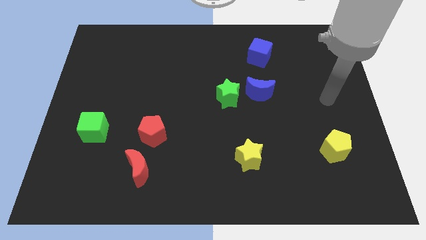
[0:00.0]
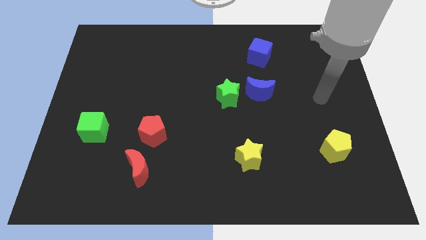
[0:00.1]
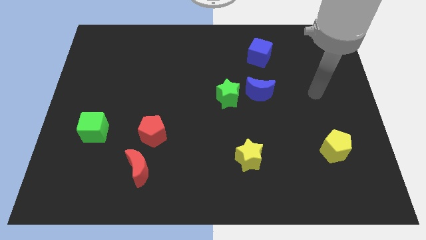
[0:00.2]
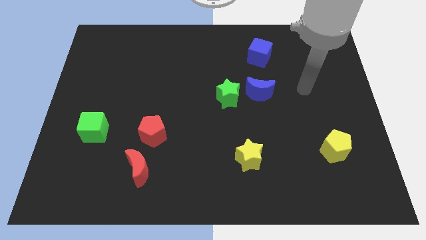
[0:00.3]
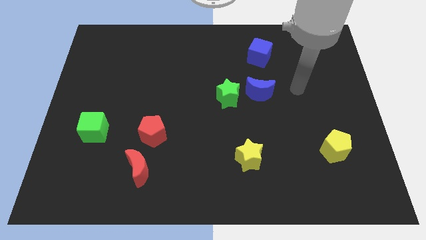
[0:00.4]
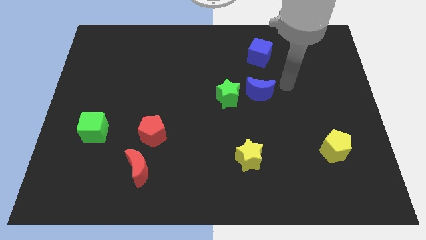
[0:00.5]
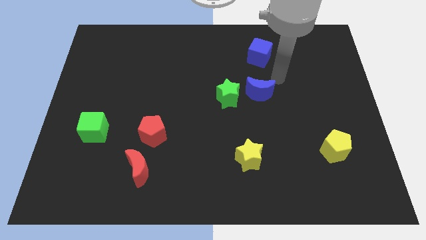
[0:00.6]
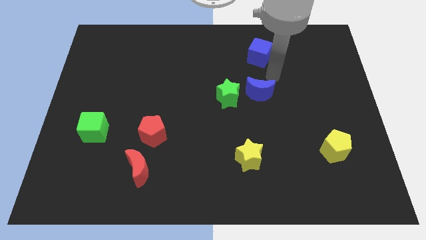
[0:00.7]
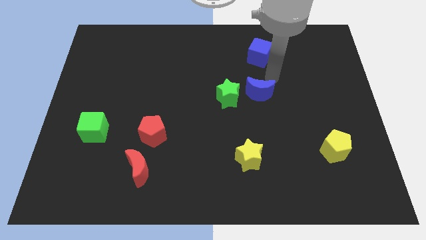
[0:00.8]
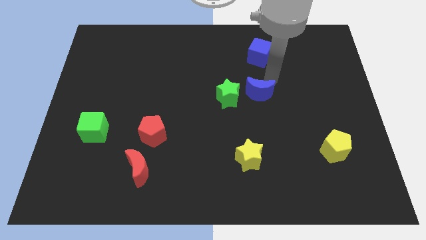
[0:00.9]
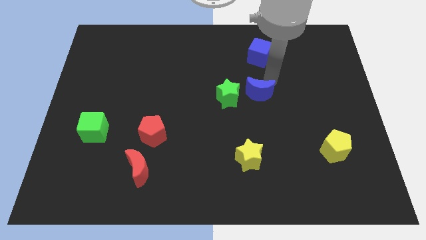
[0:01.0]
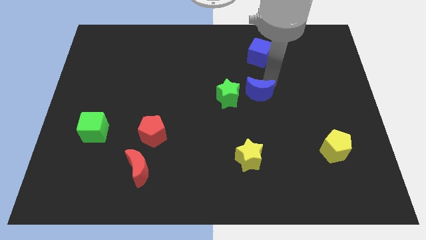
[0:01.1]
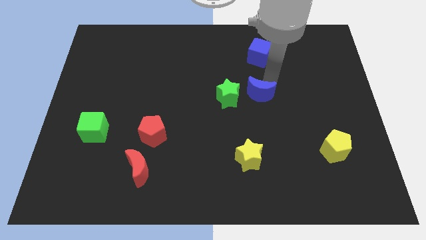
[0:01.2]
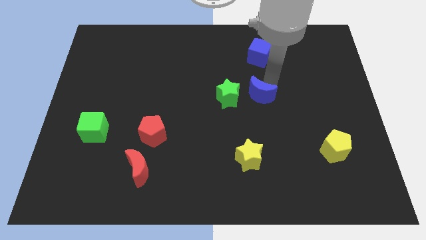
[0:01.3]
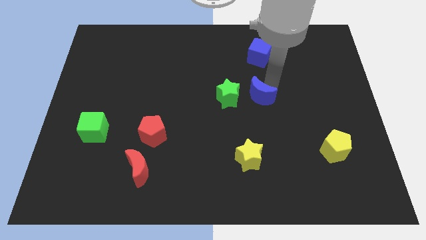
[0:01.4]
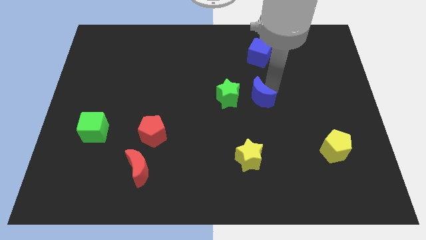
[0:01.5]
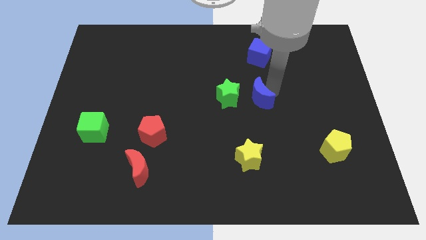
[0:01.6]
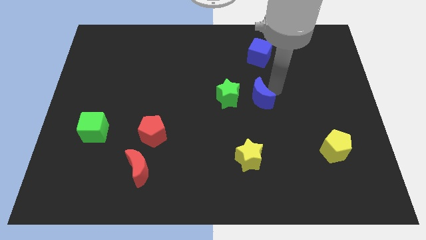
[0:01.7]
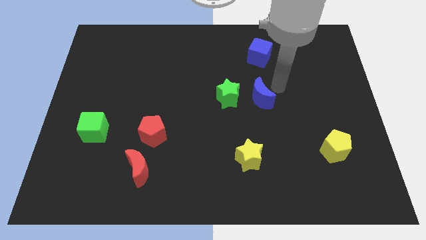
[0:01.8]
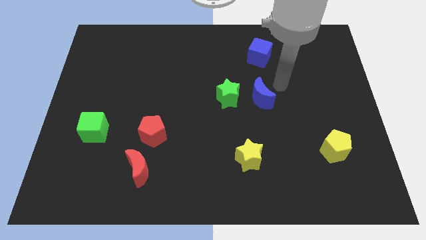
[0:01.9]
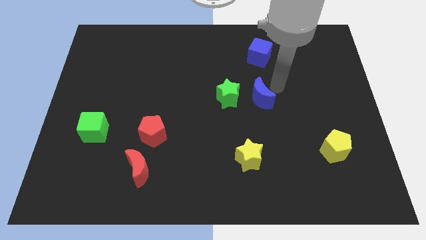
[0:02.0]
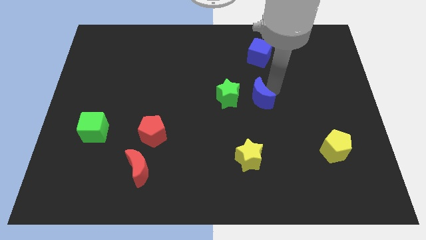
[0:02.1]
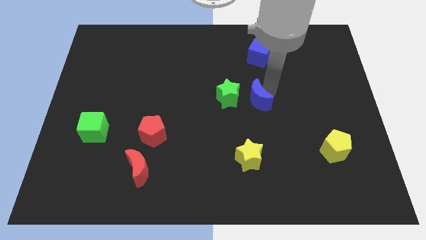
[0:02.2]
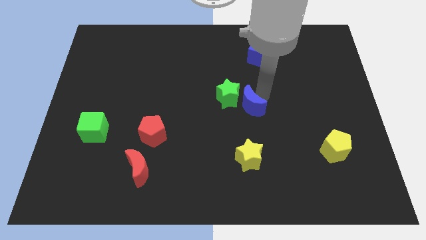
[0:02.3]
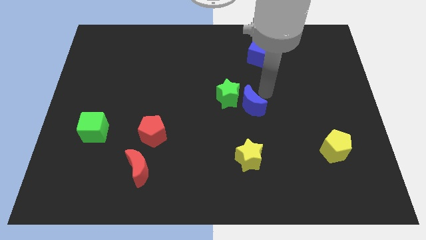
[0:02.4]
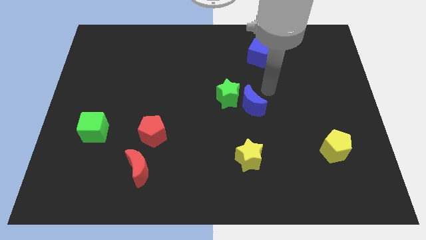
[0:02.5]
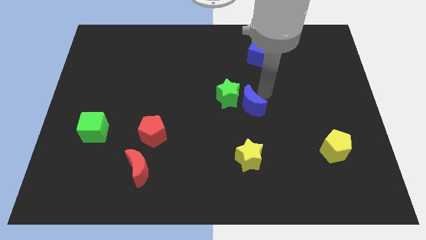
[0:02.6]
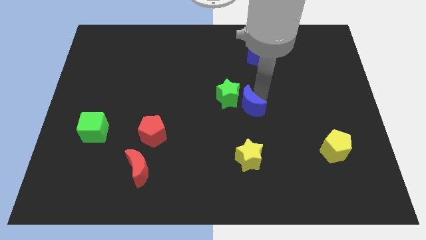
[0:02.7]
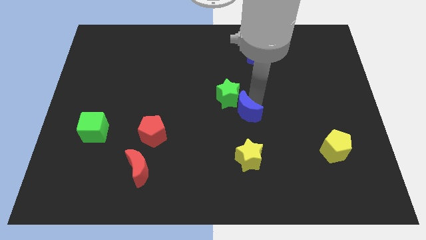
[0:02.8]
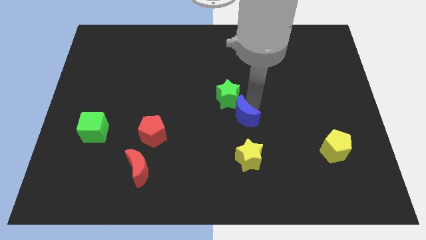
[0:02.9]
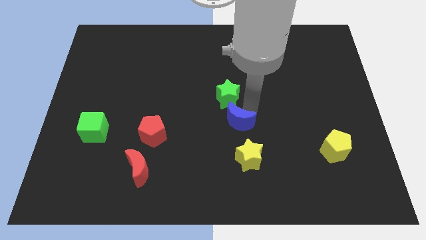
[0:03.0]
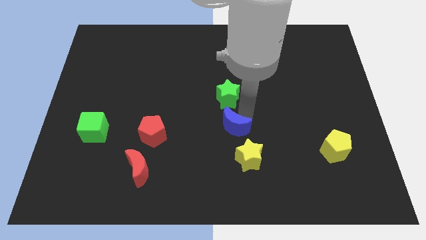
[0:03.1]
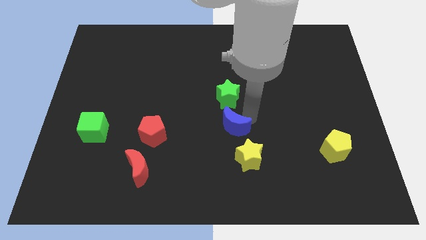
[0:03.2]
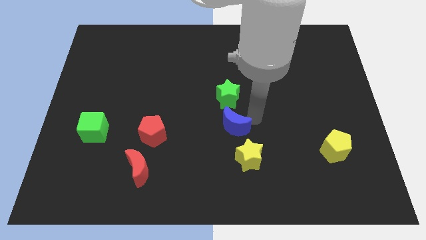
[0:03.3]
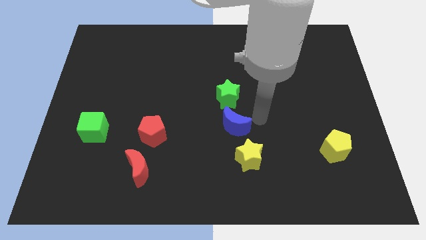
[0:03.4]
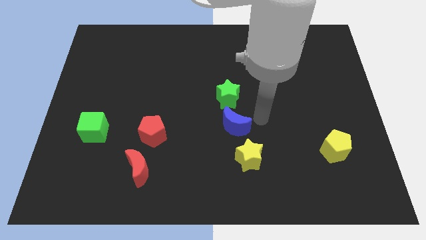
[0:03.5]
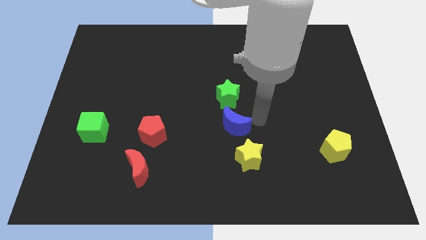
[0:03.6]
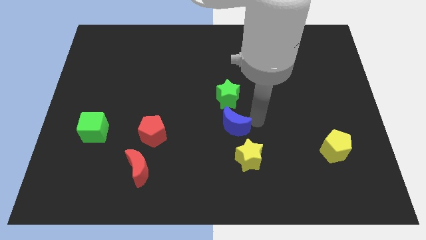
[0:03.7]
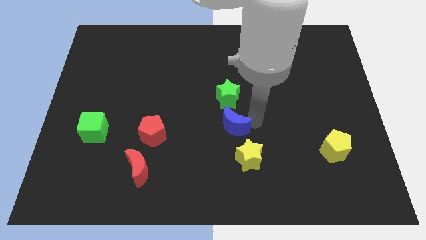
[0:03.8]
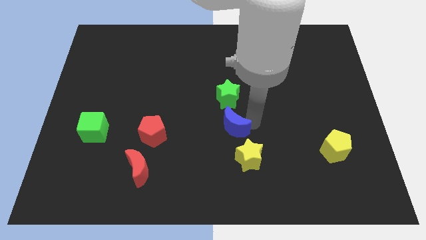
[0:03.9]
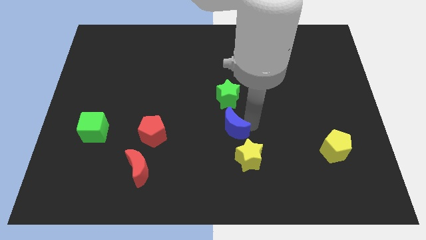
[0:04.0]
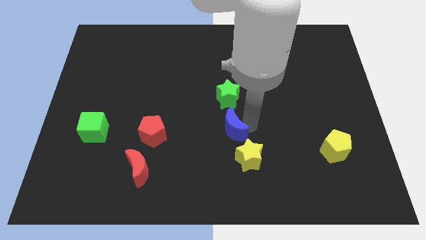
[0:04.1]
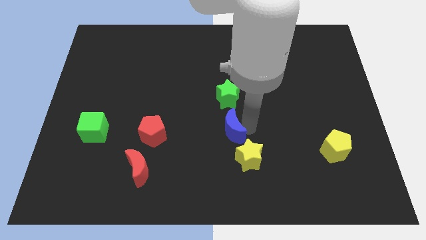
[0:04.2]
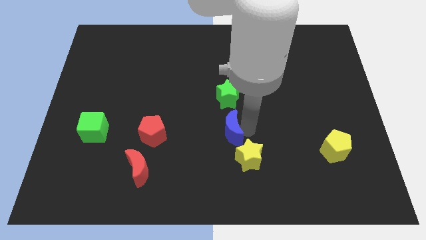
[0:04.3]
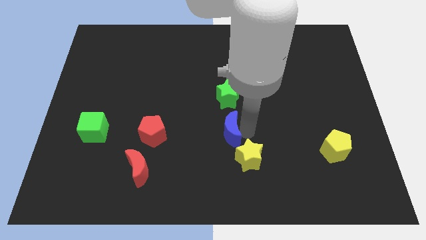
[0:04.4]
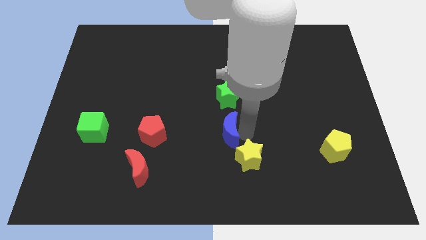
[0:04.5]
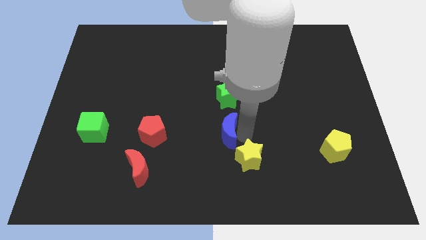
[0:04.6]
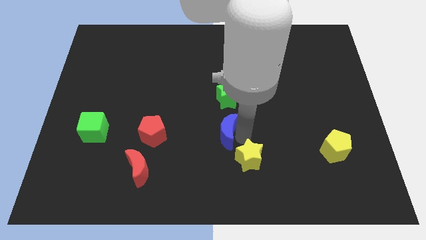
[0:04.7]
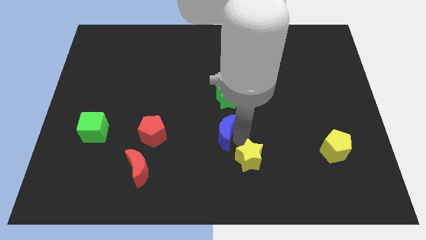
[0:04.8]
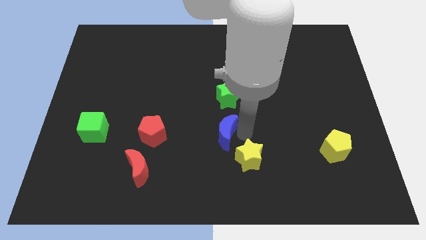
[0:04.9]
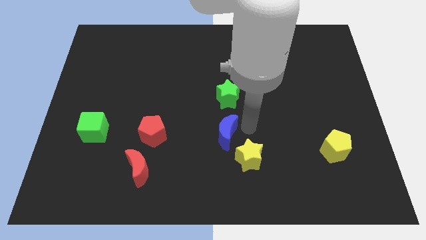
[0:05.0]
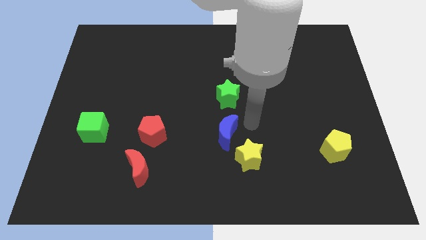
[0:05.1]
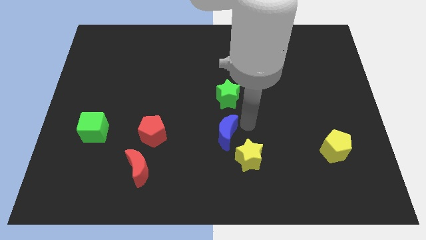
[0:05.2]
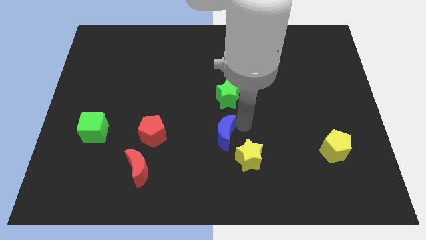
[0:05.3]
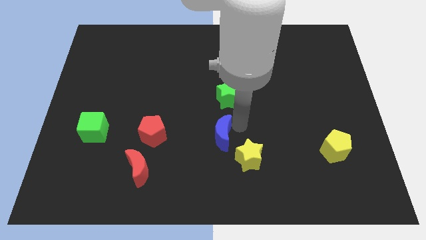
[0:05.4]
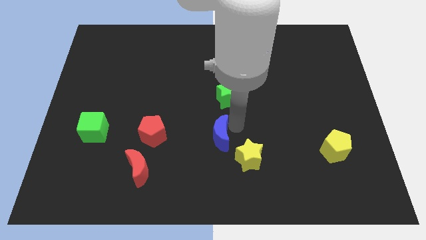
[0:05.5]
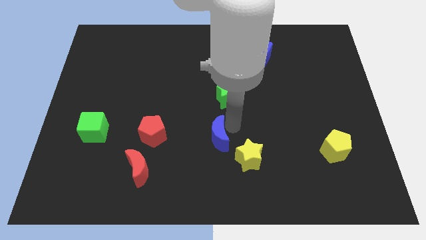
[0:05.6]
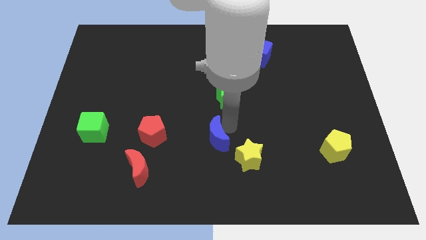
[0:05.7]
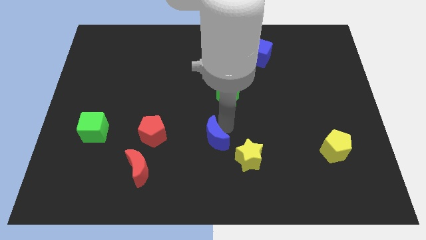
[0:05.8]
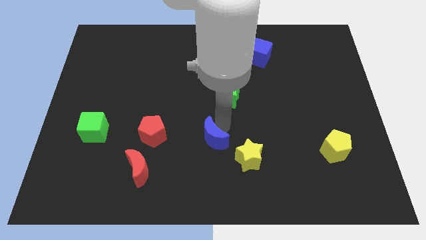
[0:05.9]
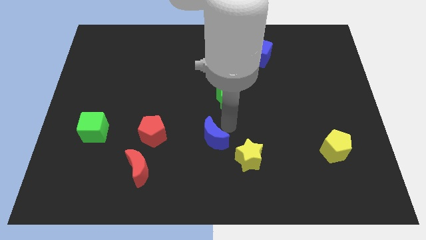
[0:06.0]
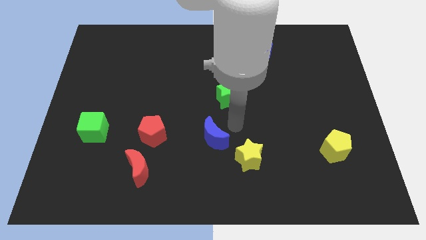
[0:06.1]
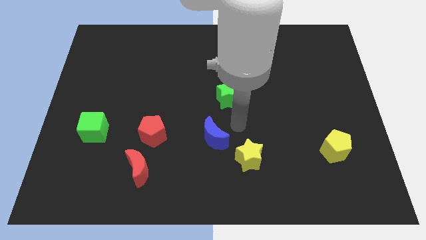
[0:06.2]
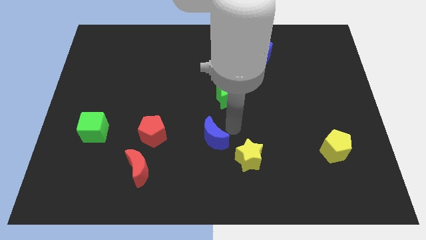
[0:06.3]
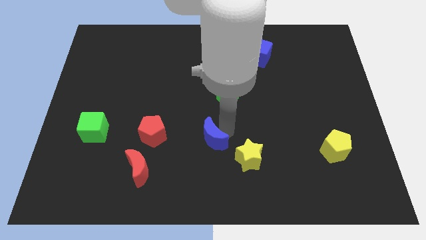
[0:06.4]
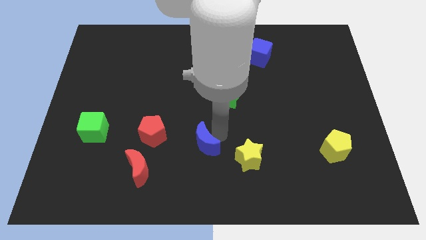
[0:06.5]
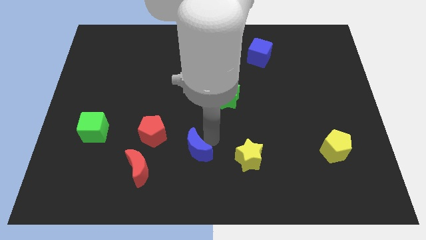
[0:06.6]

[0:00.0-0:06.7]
push the blue moon diagonally downwards and to the left

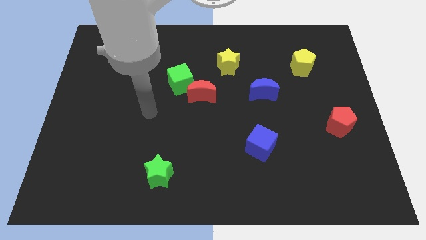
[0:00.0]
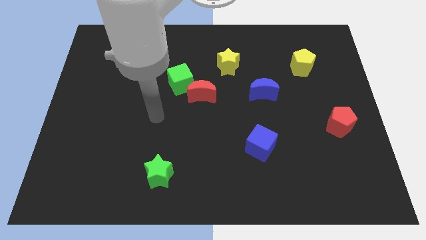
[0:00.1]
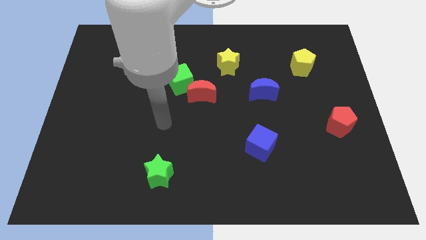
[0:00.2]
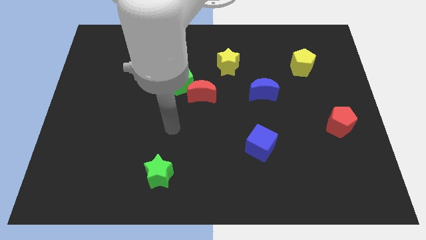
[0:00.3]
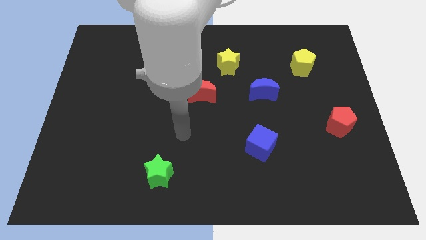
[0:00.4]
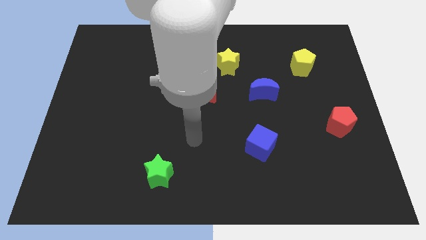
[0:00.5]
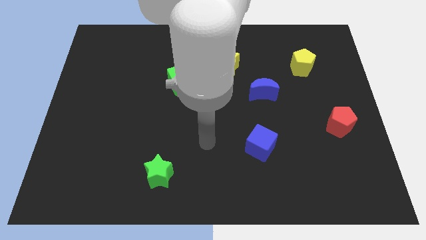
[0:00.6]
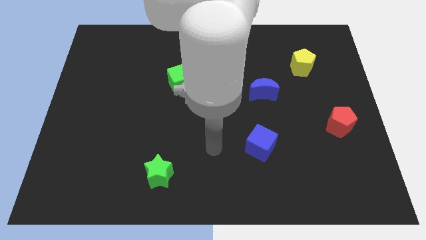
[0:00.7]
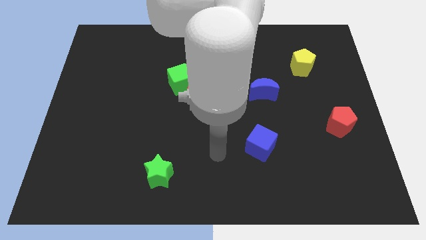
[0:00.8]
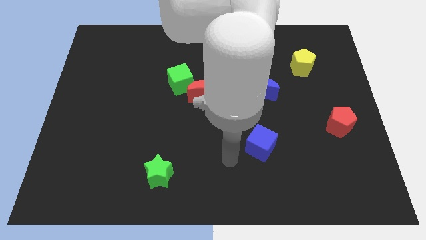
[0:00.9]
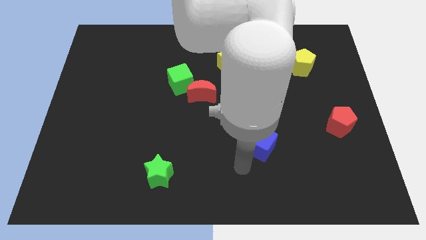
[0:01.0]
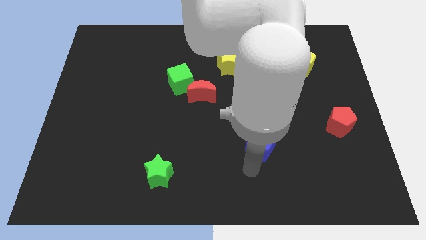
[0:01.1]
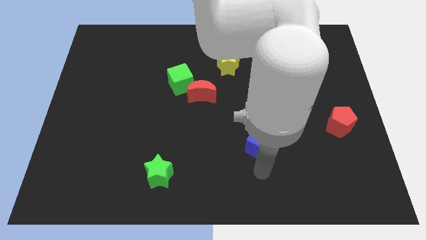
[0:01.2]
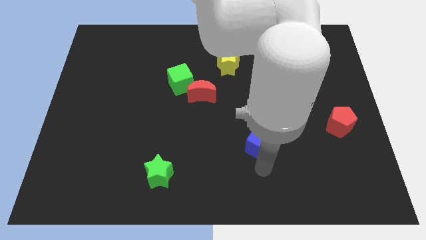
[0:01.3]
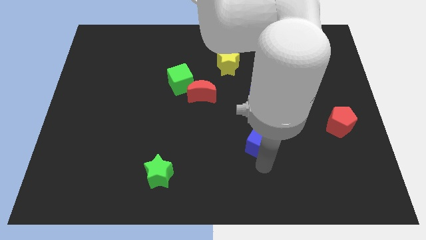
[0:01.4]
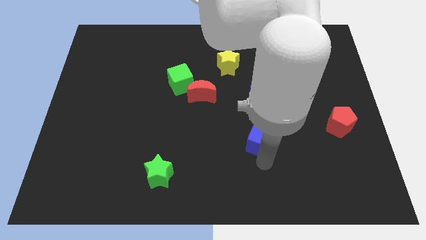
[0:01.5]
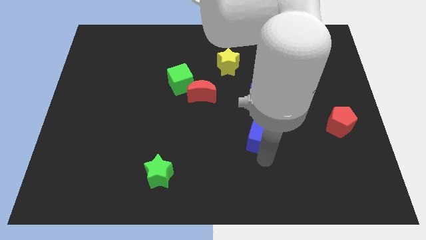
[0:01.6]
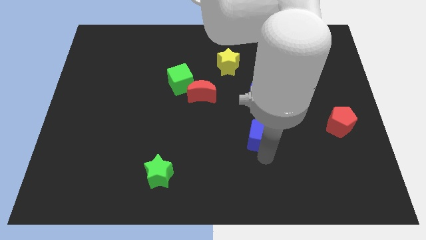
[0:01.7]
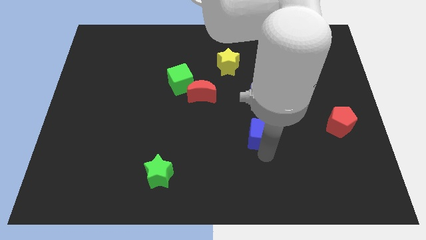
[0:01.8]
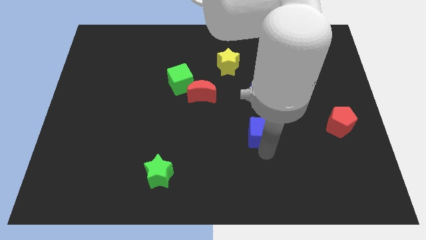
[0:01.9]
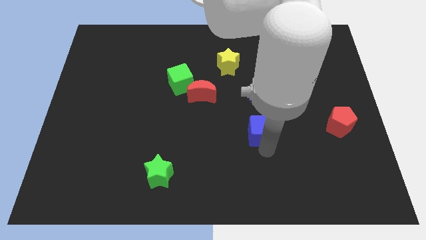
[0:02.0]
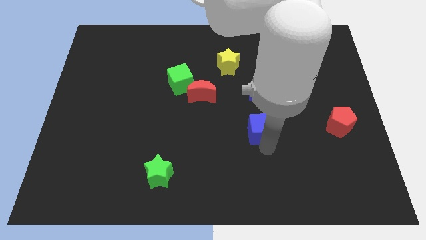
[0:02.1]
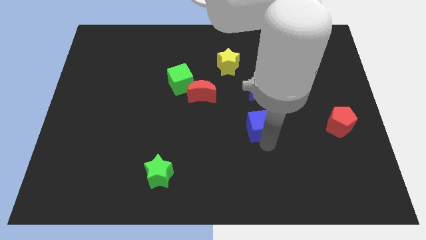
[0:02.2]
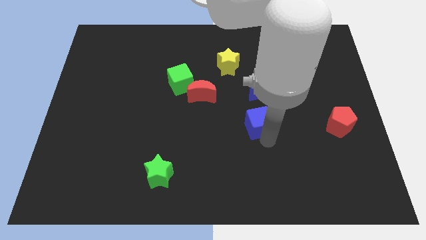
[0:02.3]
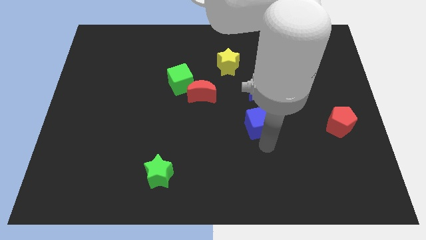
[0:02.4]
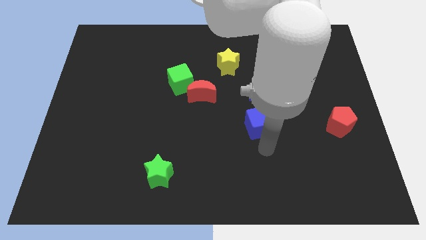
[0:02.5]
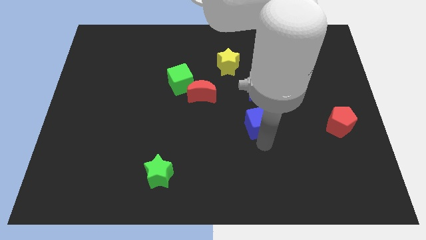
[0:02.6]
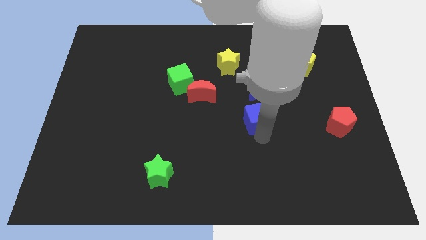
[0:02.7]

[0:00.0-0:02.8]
push the blue cube upwards a little bit
